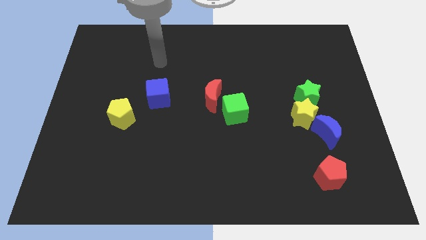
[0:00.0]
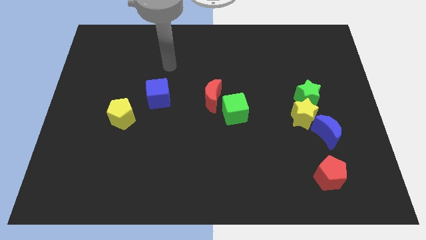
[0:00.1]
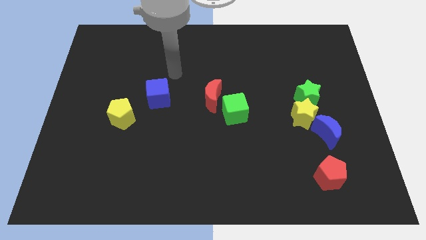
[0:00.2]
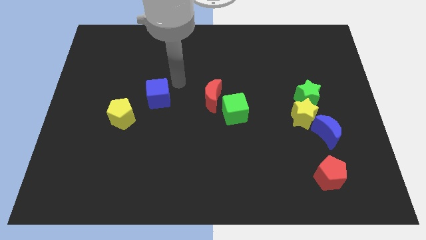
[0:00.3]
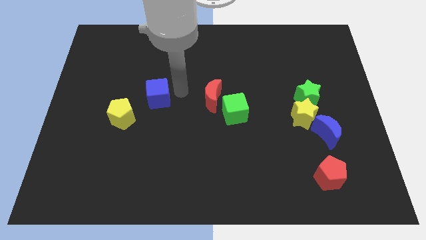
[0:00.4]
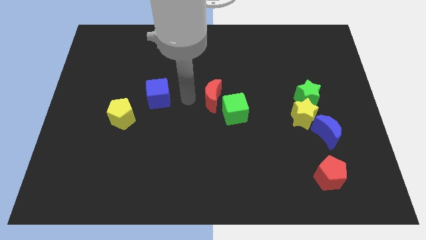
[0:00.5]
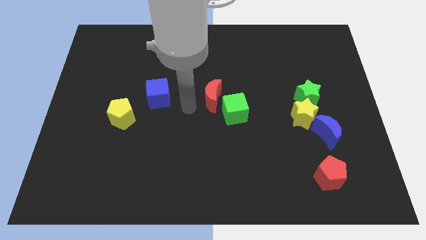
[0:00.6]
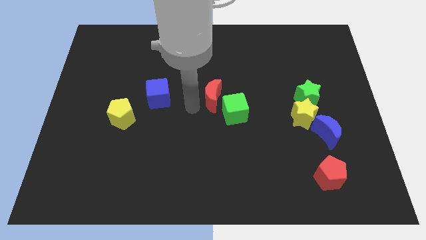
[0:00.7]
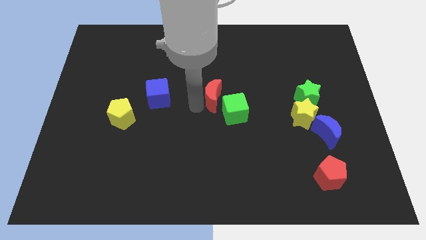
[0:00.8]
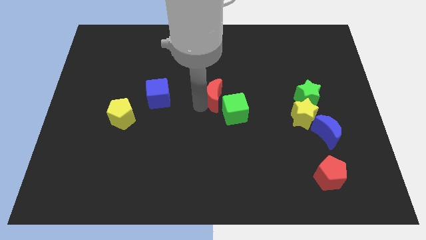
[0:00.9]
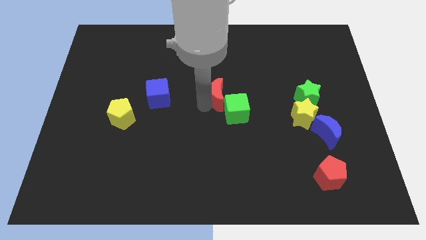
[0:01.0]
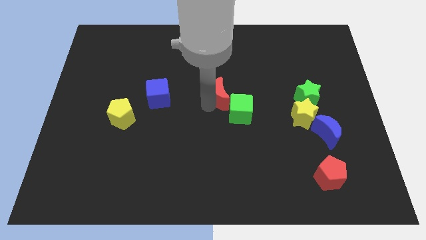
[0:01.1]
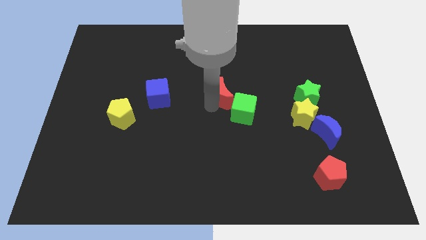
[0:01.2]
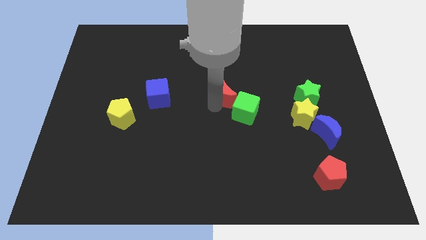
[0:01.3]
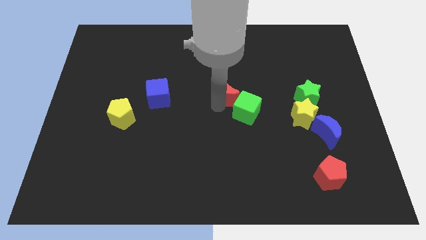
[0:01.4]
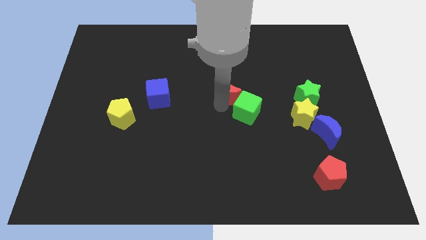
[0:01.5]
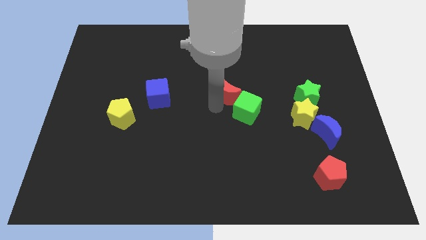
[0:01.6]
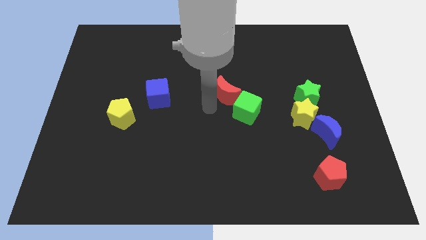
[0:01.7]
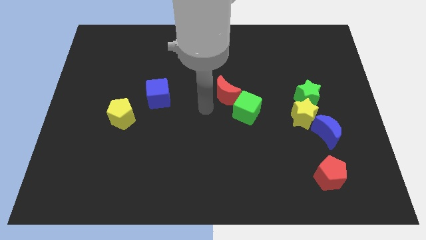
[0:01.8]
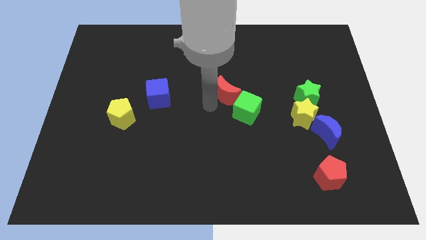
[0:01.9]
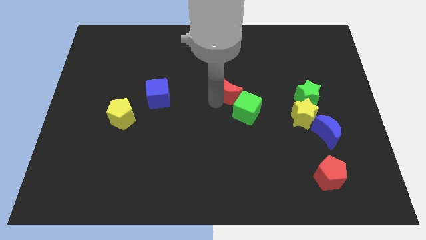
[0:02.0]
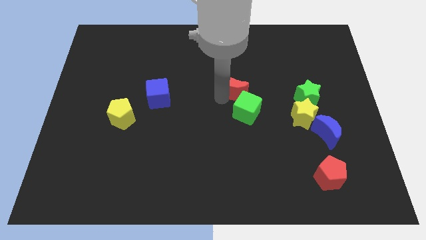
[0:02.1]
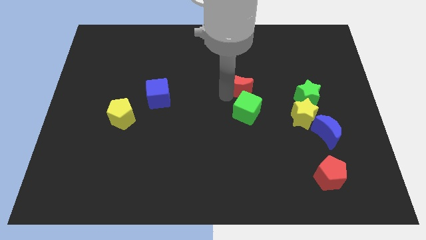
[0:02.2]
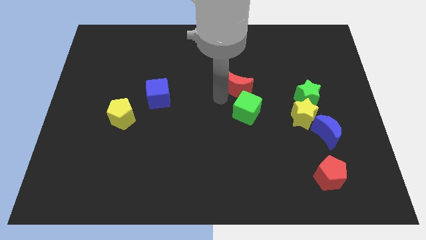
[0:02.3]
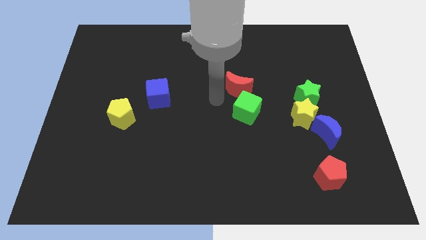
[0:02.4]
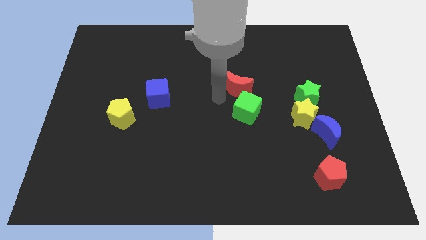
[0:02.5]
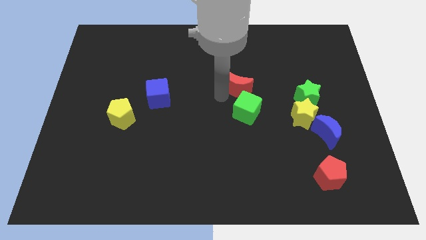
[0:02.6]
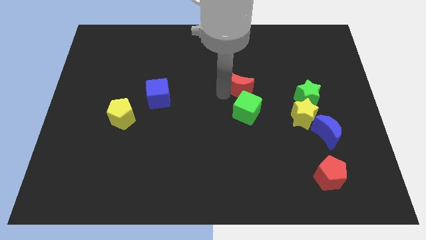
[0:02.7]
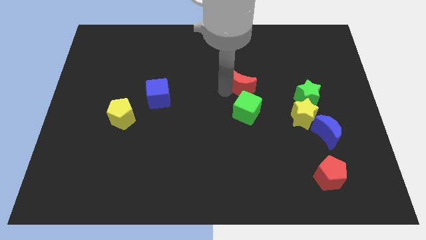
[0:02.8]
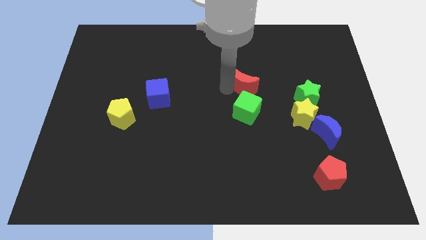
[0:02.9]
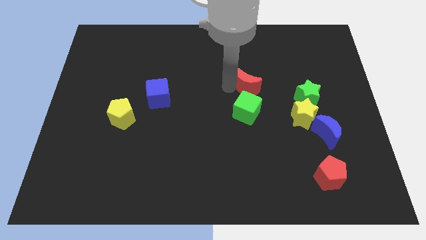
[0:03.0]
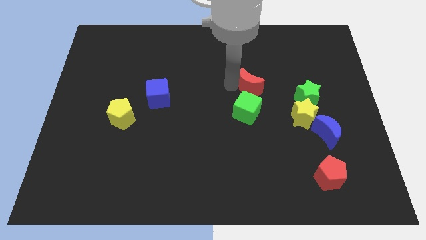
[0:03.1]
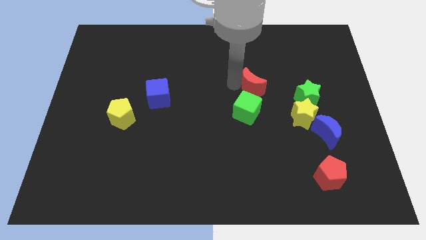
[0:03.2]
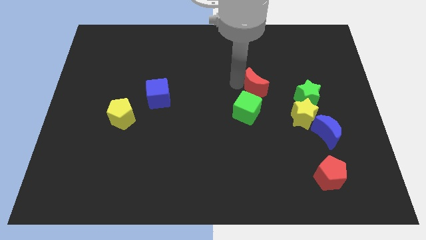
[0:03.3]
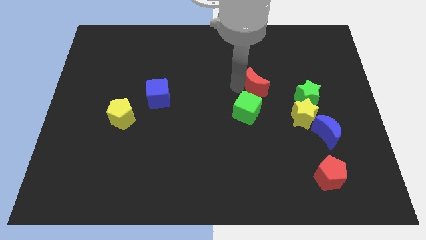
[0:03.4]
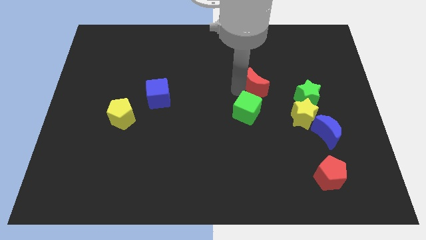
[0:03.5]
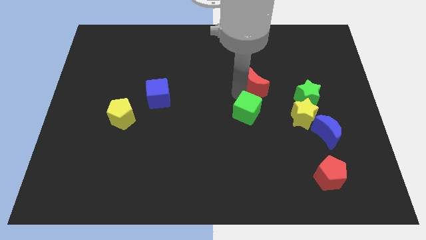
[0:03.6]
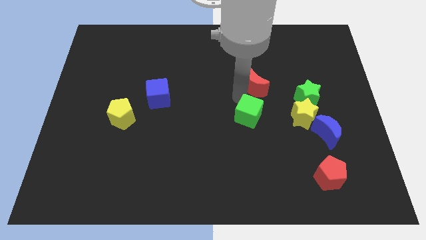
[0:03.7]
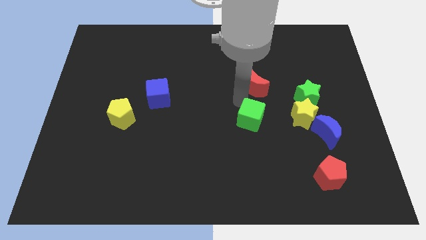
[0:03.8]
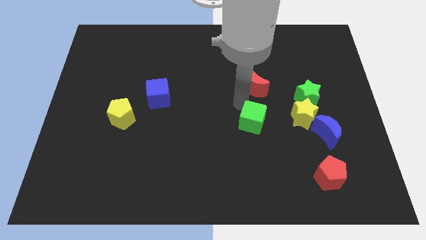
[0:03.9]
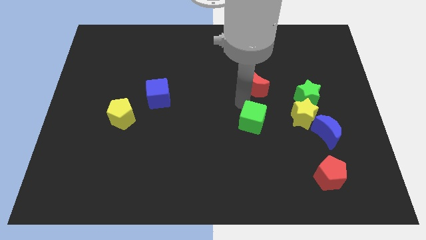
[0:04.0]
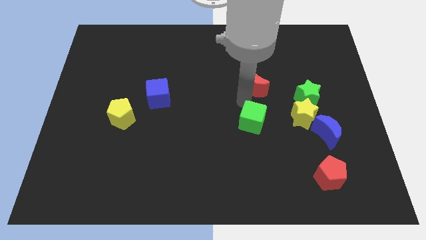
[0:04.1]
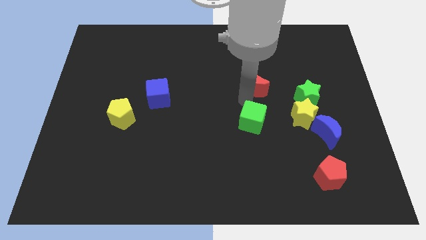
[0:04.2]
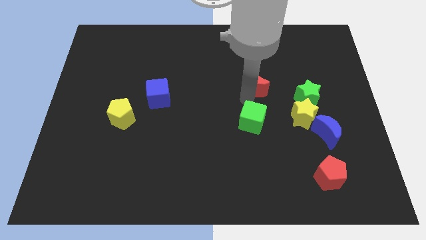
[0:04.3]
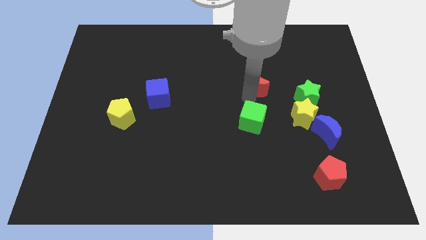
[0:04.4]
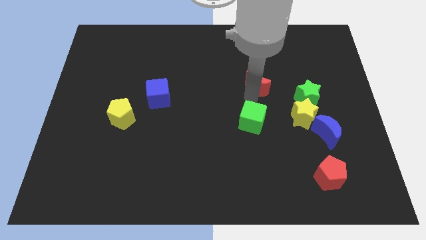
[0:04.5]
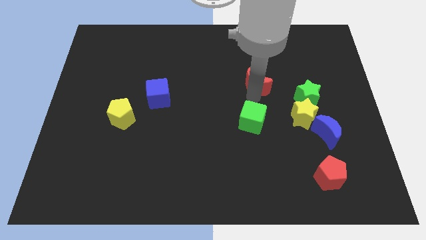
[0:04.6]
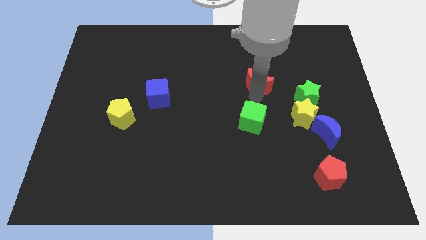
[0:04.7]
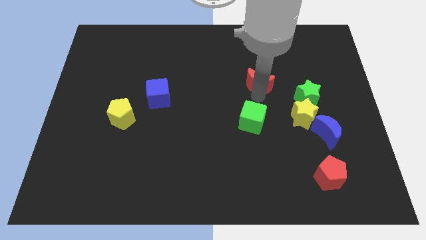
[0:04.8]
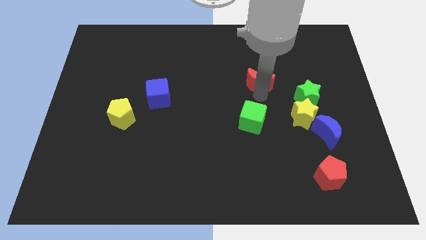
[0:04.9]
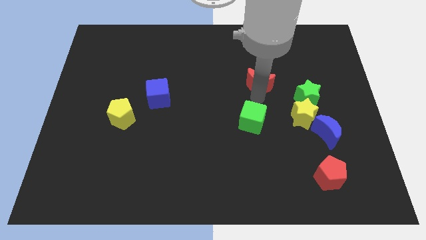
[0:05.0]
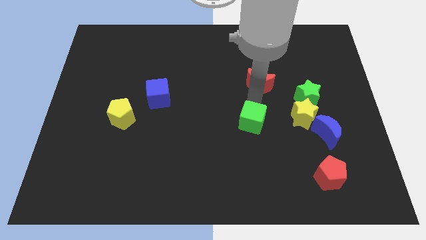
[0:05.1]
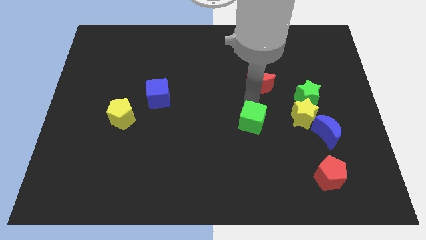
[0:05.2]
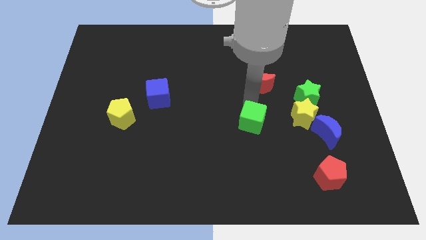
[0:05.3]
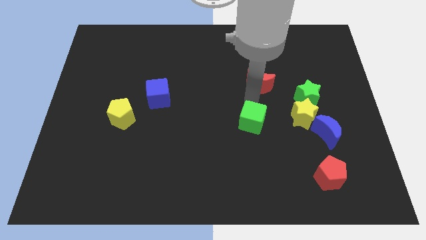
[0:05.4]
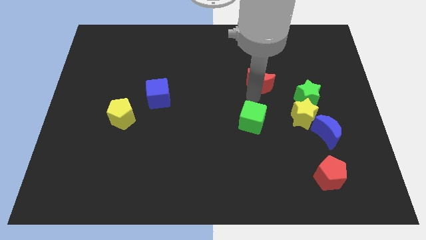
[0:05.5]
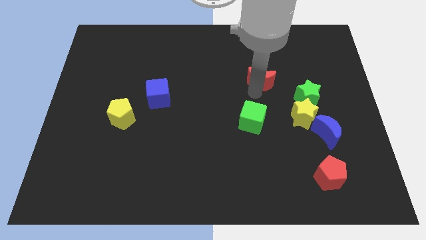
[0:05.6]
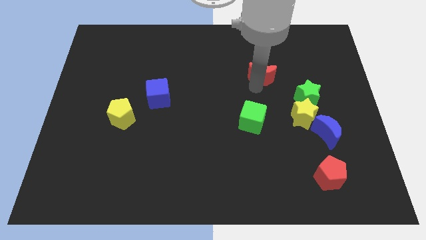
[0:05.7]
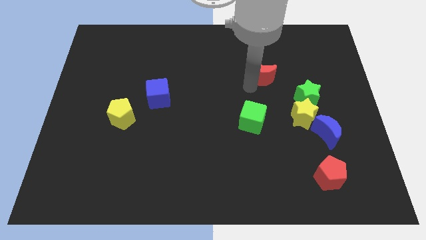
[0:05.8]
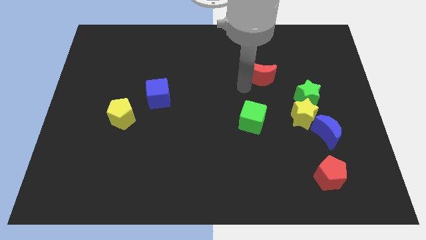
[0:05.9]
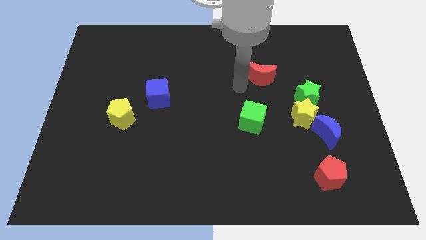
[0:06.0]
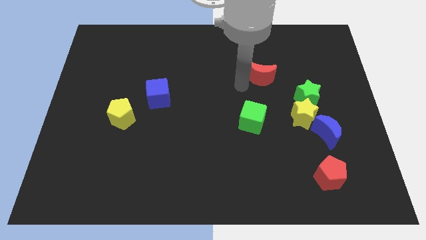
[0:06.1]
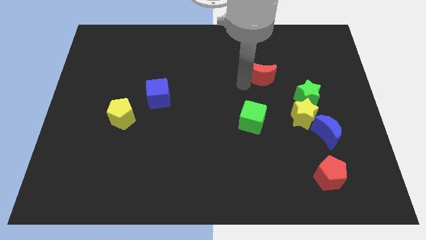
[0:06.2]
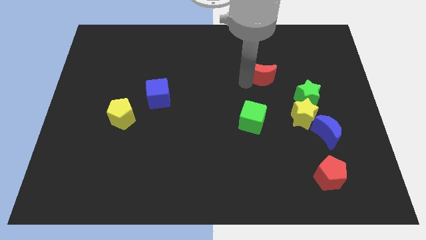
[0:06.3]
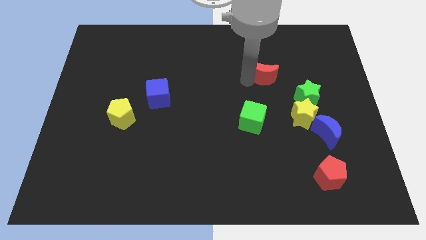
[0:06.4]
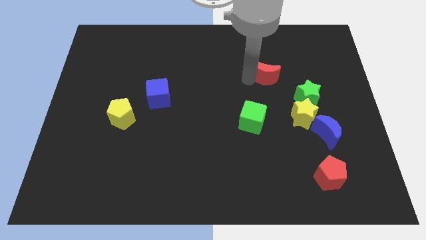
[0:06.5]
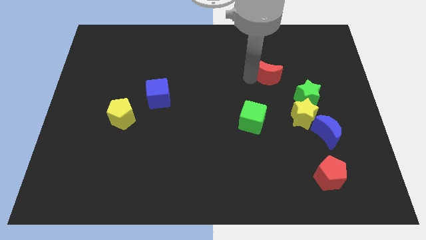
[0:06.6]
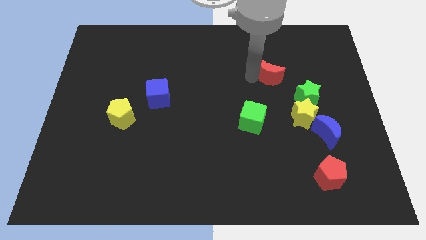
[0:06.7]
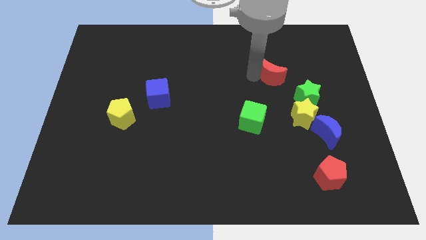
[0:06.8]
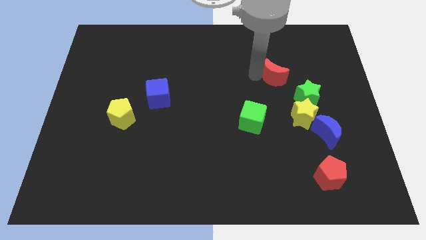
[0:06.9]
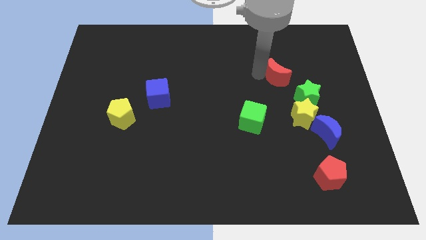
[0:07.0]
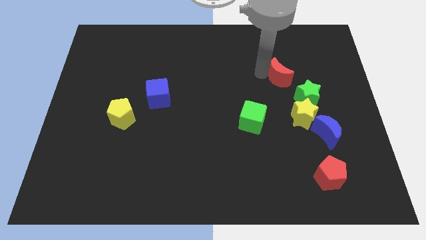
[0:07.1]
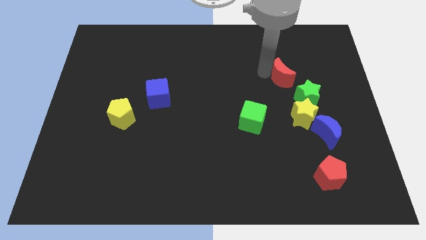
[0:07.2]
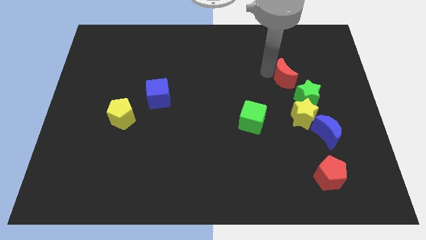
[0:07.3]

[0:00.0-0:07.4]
slide the red moon to the top of the green star
